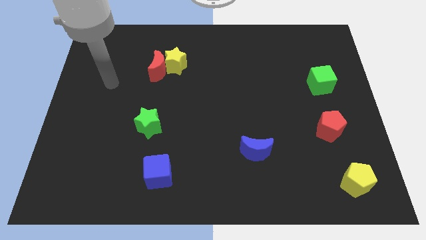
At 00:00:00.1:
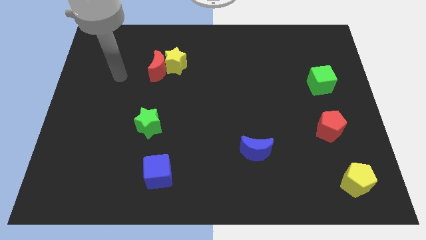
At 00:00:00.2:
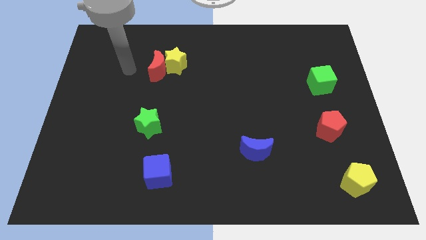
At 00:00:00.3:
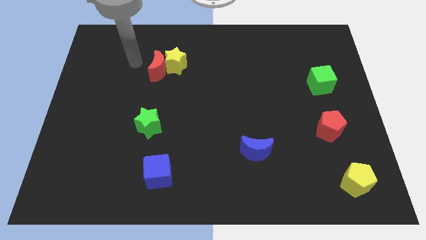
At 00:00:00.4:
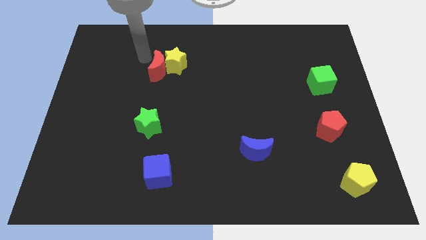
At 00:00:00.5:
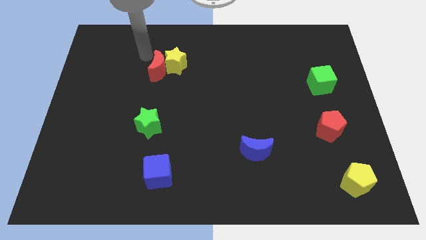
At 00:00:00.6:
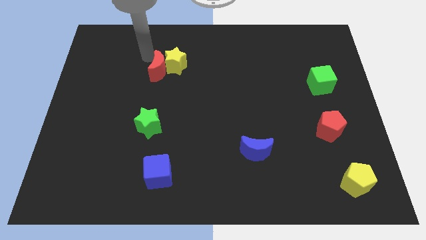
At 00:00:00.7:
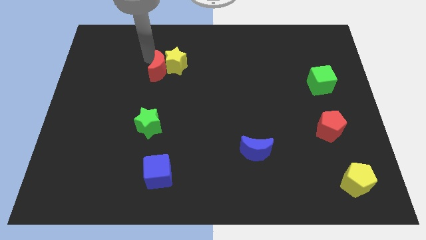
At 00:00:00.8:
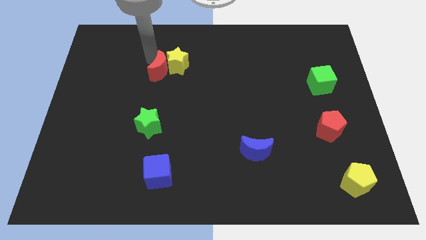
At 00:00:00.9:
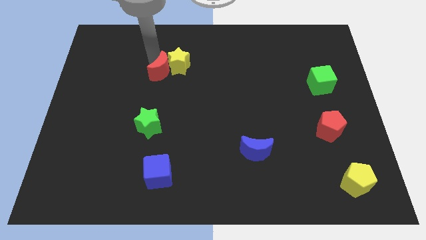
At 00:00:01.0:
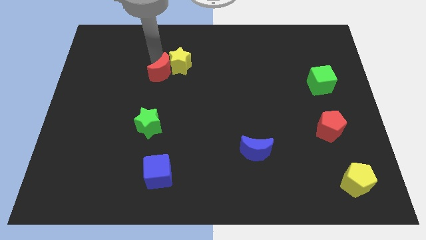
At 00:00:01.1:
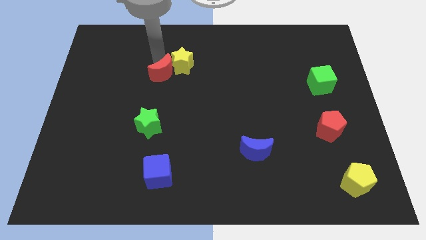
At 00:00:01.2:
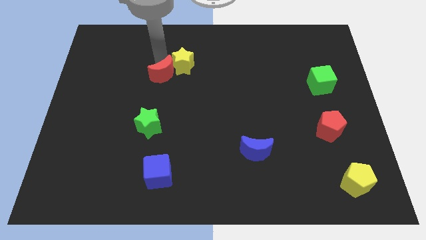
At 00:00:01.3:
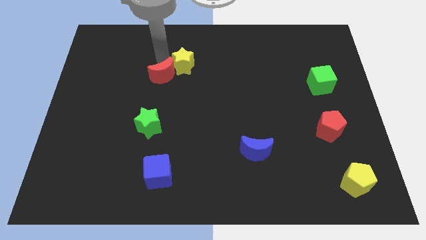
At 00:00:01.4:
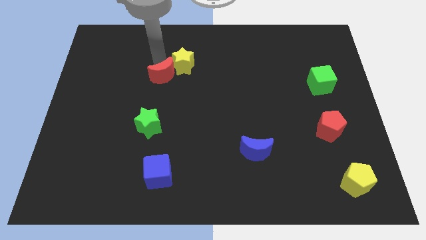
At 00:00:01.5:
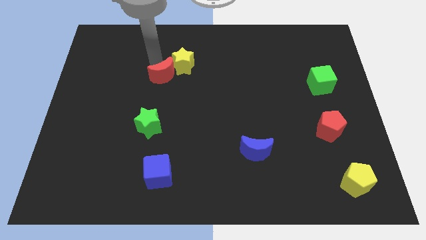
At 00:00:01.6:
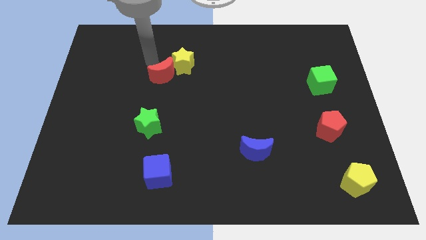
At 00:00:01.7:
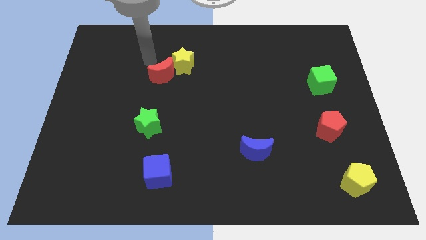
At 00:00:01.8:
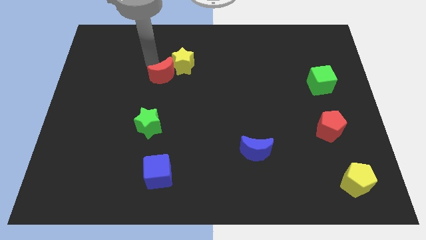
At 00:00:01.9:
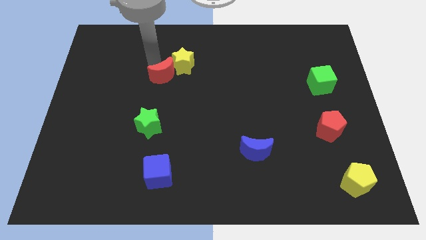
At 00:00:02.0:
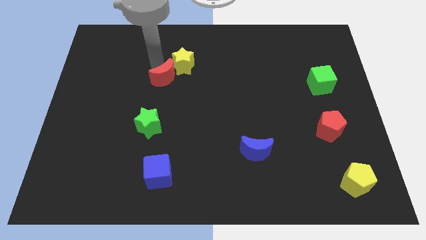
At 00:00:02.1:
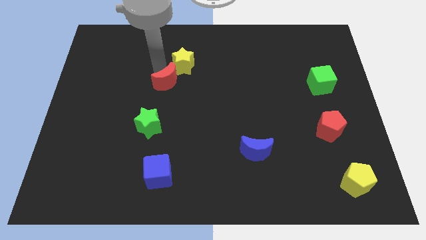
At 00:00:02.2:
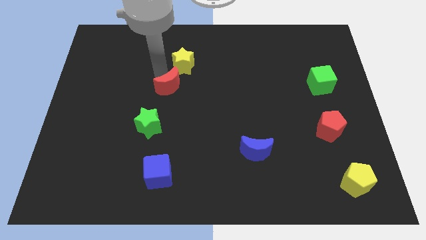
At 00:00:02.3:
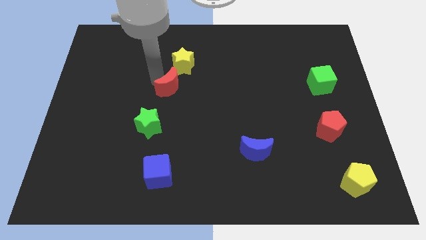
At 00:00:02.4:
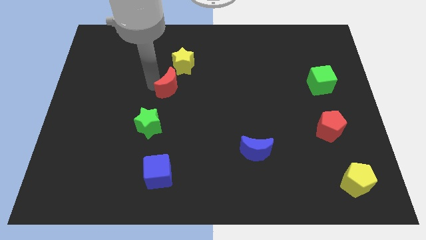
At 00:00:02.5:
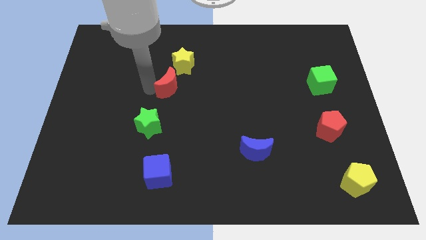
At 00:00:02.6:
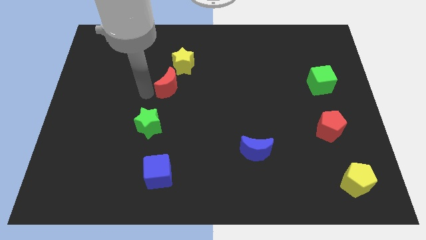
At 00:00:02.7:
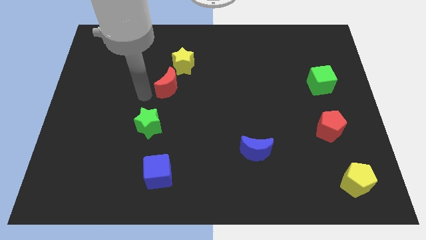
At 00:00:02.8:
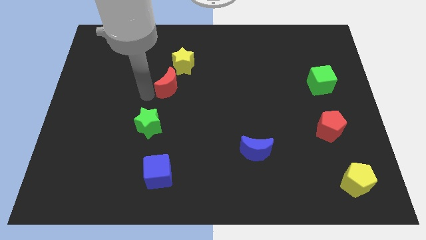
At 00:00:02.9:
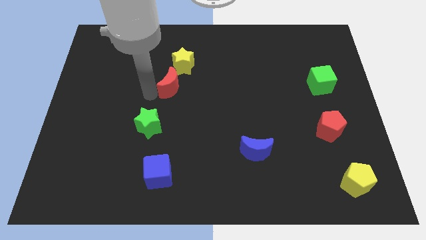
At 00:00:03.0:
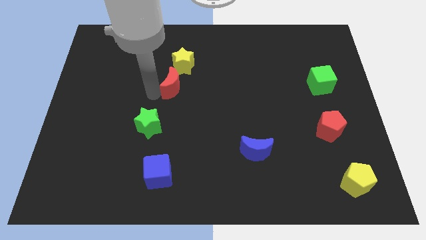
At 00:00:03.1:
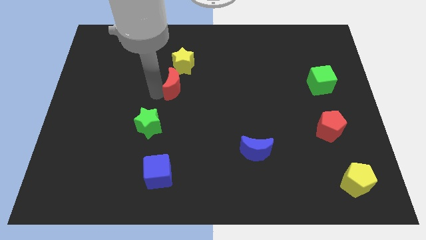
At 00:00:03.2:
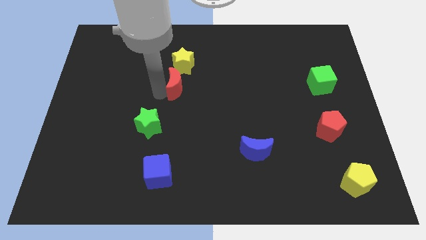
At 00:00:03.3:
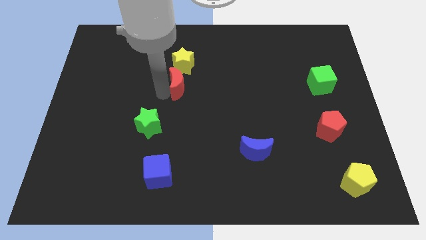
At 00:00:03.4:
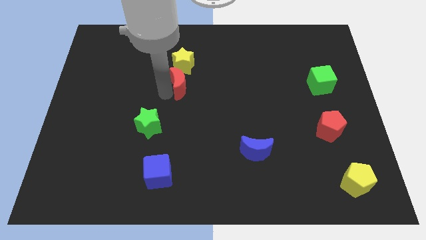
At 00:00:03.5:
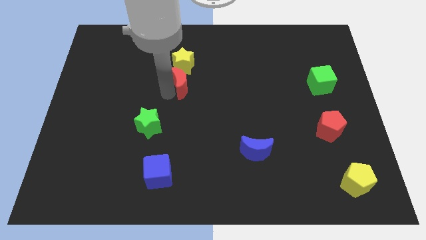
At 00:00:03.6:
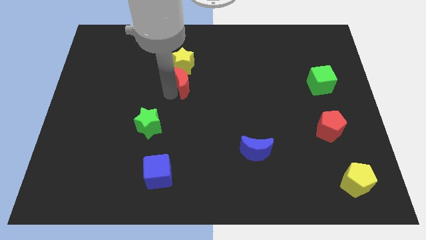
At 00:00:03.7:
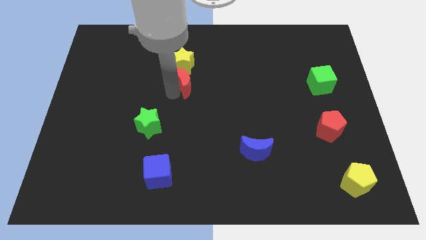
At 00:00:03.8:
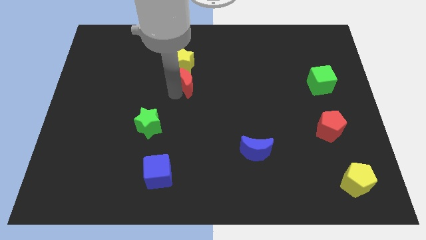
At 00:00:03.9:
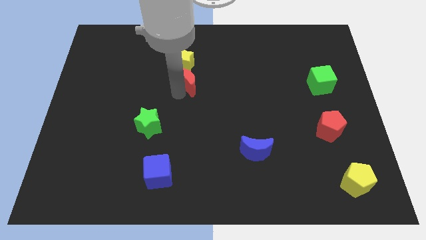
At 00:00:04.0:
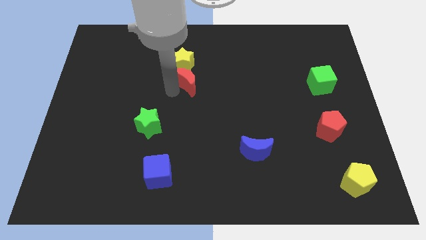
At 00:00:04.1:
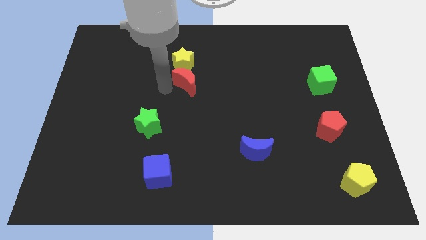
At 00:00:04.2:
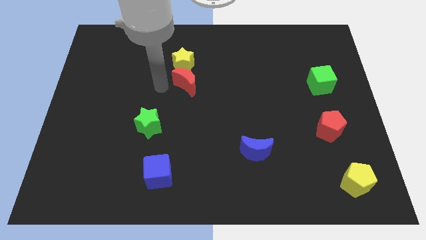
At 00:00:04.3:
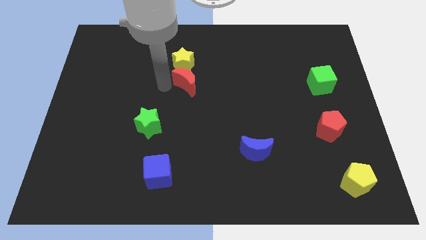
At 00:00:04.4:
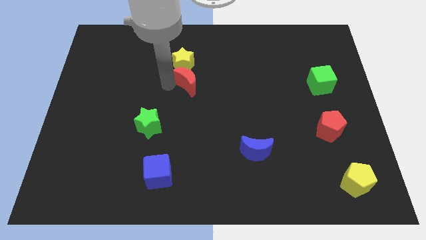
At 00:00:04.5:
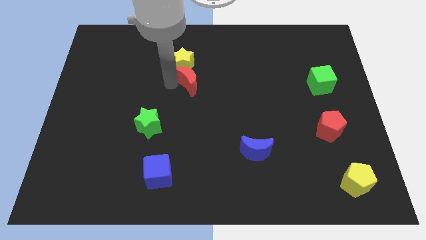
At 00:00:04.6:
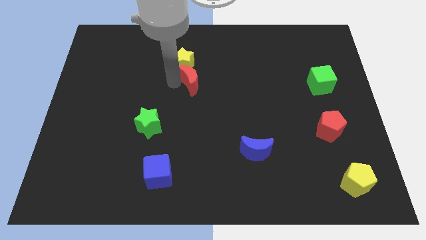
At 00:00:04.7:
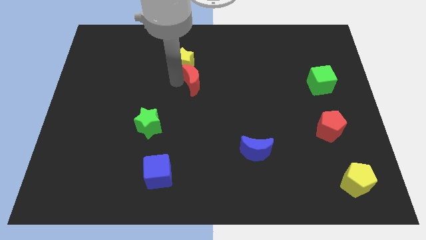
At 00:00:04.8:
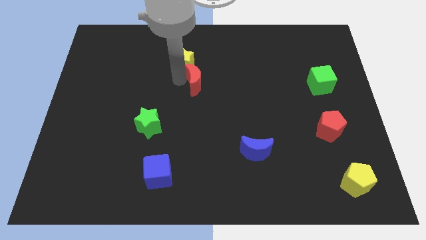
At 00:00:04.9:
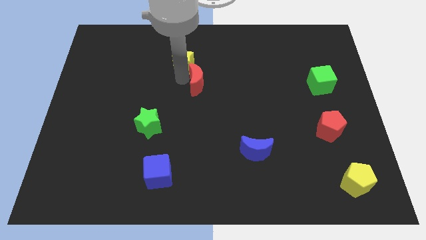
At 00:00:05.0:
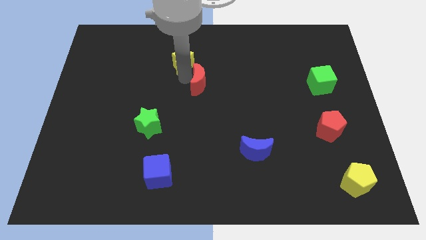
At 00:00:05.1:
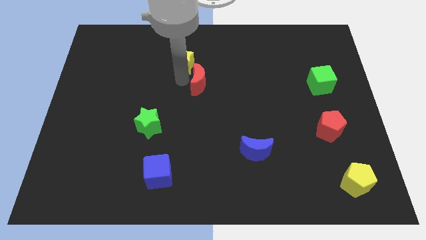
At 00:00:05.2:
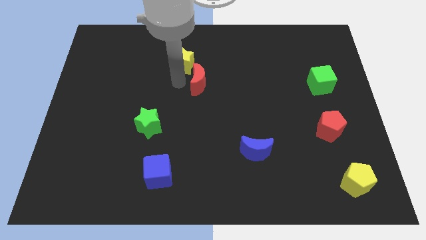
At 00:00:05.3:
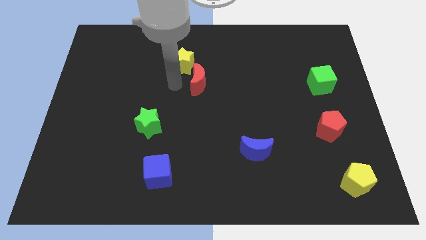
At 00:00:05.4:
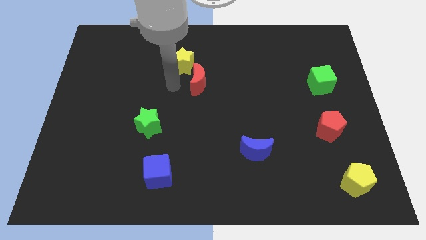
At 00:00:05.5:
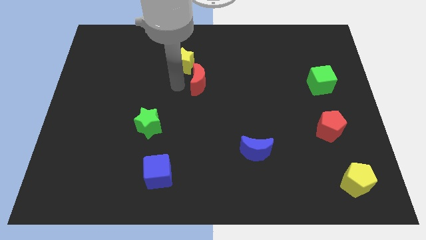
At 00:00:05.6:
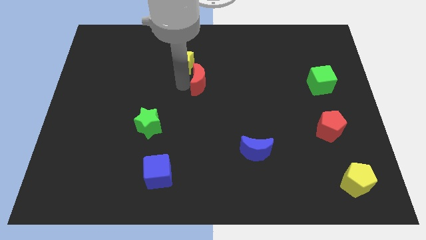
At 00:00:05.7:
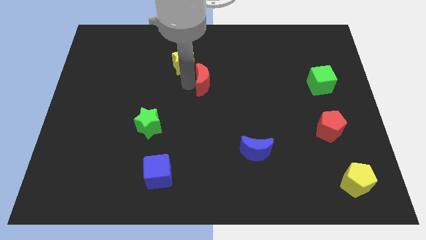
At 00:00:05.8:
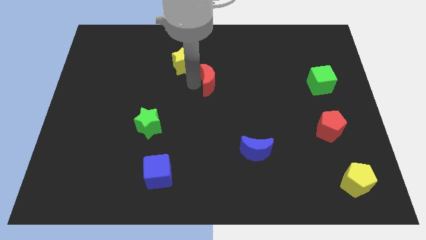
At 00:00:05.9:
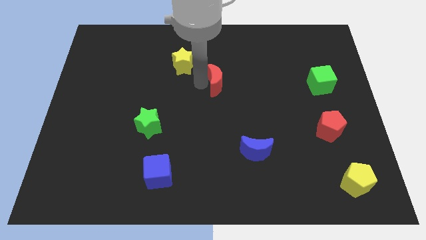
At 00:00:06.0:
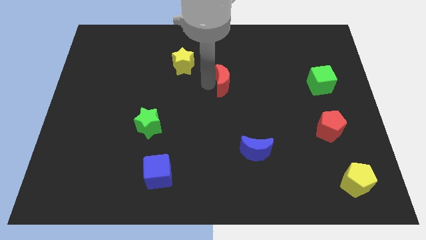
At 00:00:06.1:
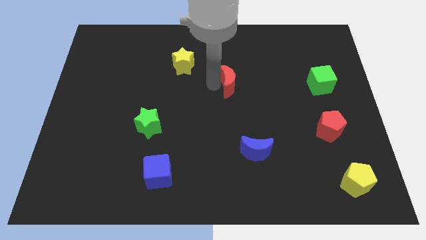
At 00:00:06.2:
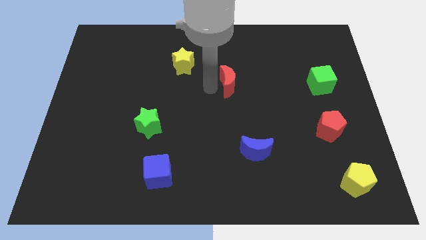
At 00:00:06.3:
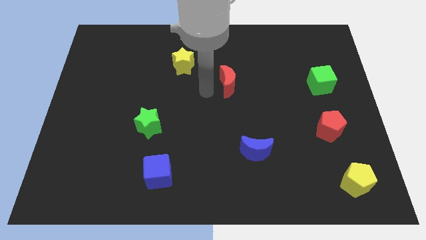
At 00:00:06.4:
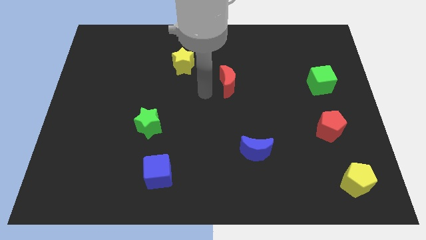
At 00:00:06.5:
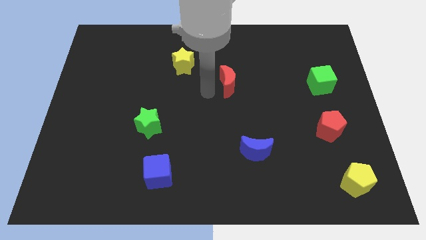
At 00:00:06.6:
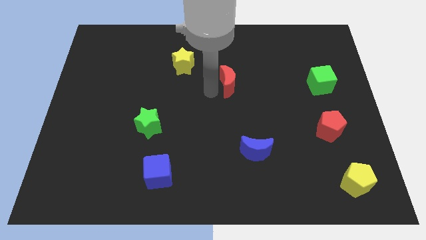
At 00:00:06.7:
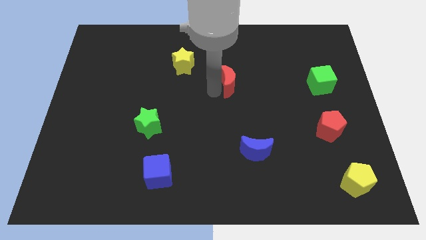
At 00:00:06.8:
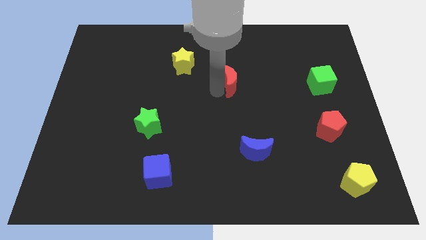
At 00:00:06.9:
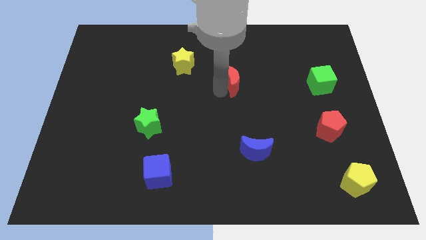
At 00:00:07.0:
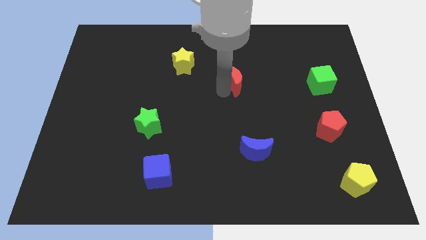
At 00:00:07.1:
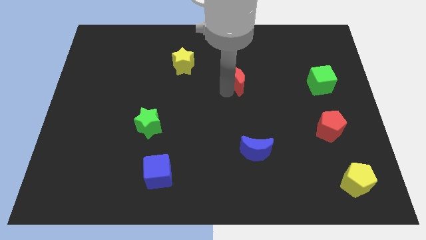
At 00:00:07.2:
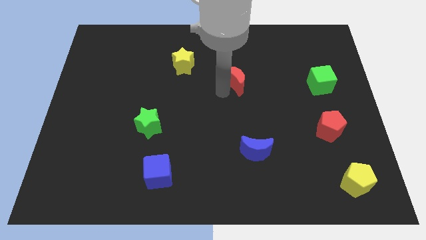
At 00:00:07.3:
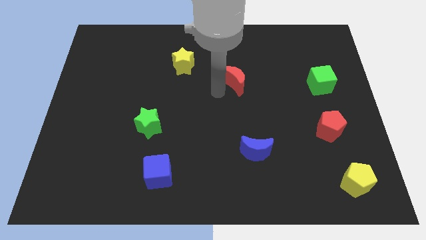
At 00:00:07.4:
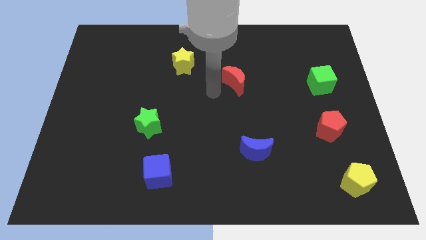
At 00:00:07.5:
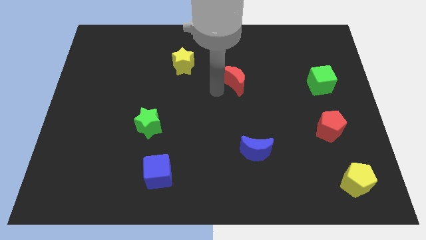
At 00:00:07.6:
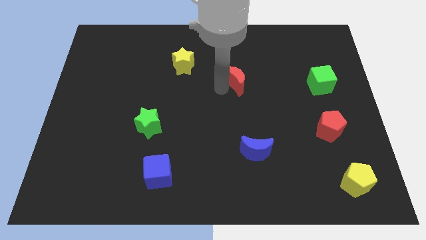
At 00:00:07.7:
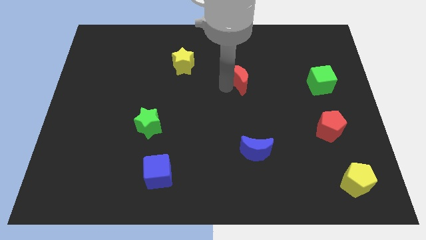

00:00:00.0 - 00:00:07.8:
move the red moon to the right

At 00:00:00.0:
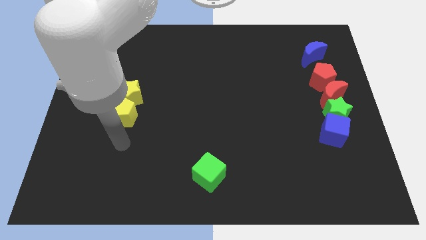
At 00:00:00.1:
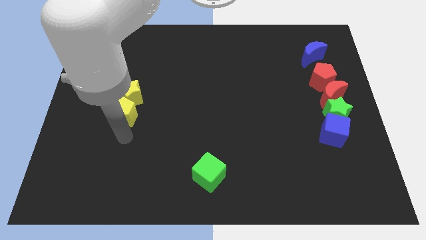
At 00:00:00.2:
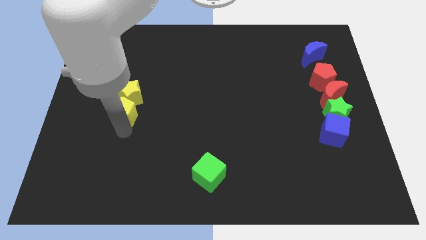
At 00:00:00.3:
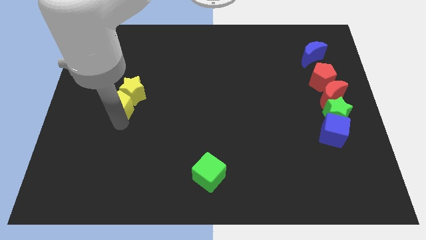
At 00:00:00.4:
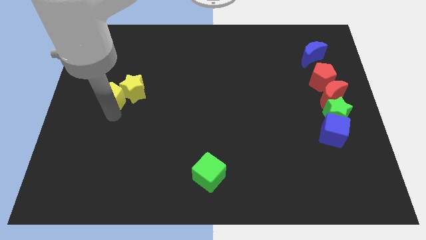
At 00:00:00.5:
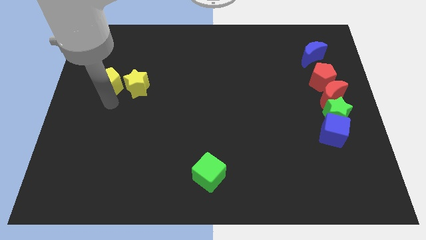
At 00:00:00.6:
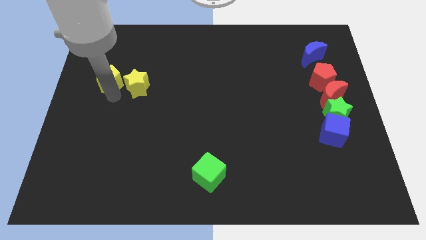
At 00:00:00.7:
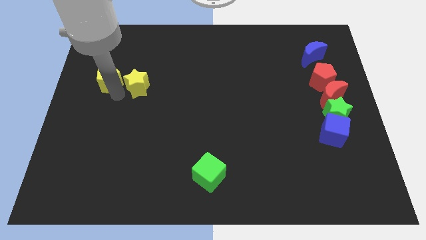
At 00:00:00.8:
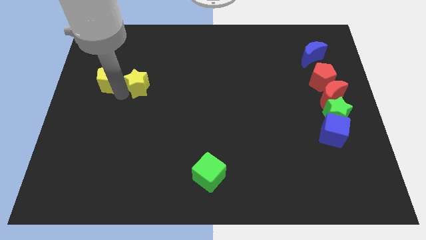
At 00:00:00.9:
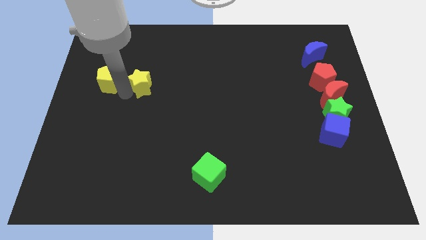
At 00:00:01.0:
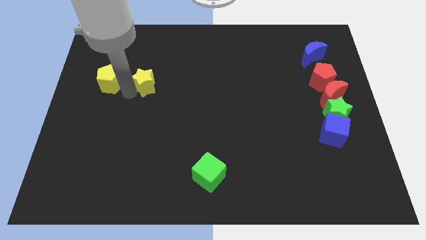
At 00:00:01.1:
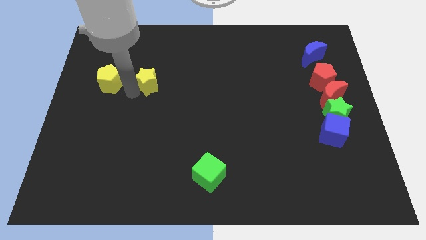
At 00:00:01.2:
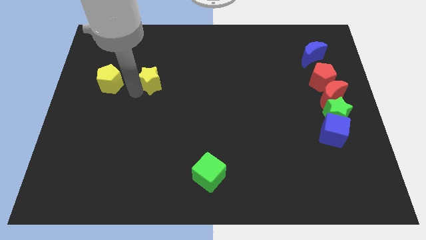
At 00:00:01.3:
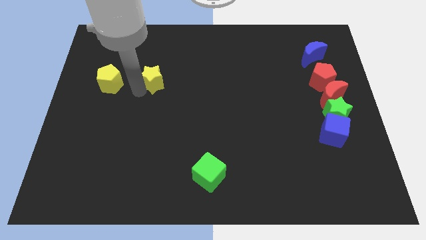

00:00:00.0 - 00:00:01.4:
slightly slide the yellow star diagonally upwards and right
